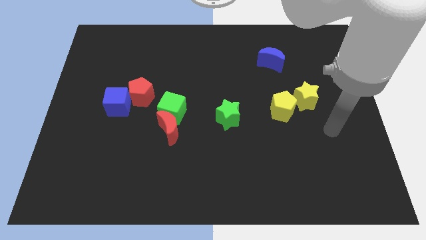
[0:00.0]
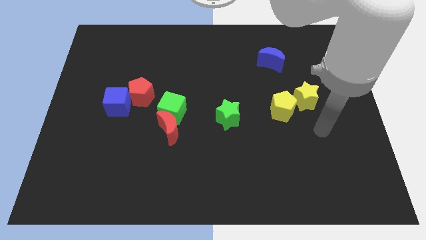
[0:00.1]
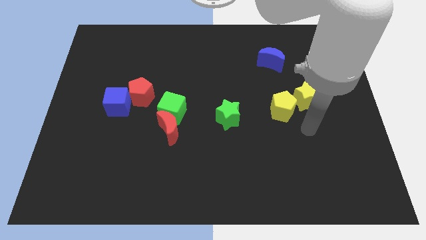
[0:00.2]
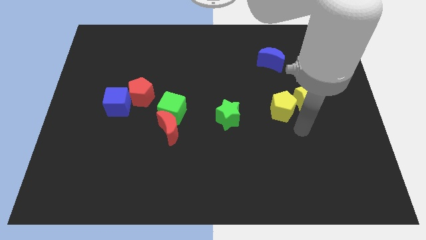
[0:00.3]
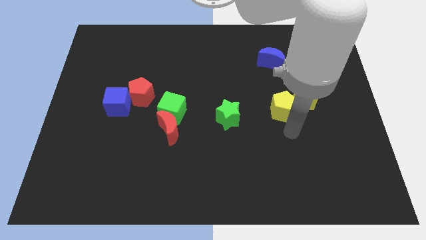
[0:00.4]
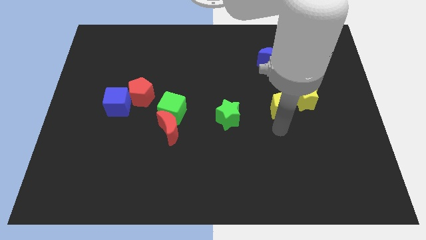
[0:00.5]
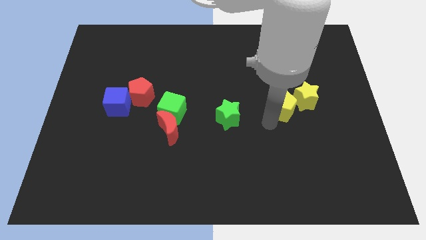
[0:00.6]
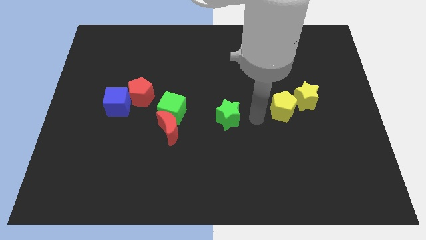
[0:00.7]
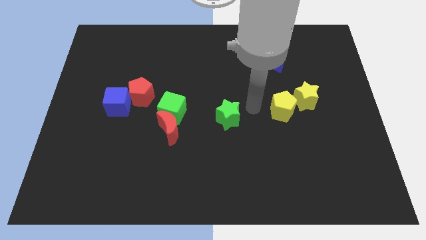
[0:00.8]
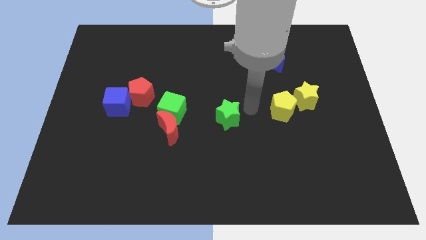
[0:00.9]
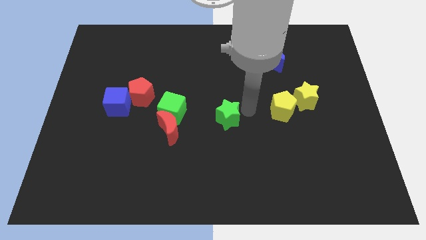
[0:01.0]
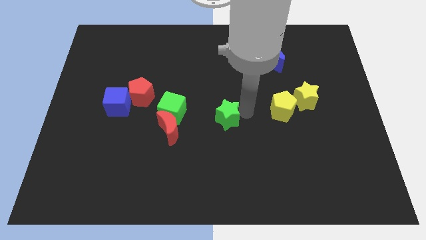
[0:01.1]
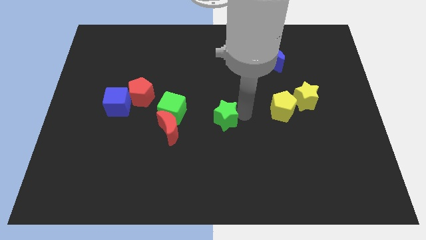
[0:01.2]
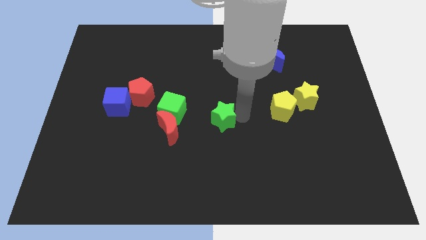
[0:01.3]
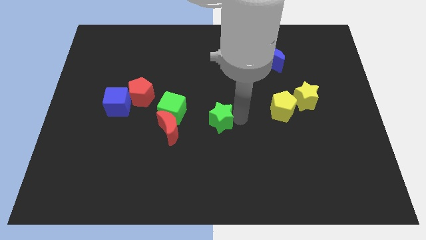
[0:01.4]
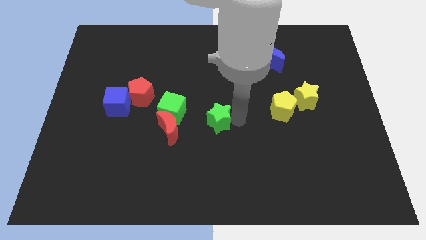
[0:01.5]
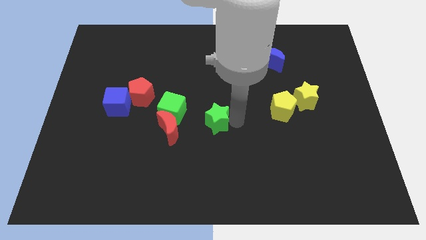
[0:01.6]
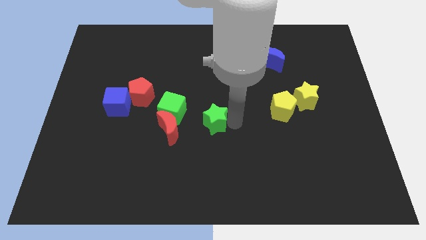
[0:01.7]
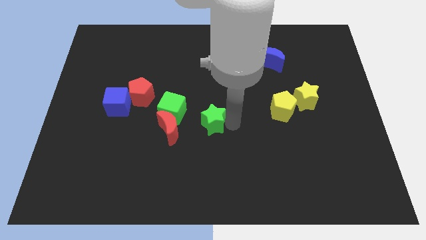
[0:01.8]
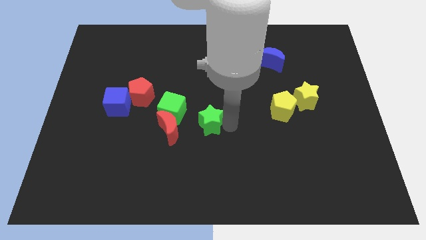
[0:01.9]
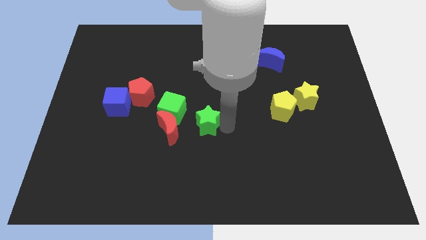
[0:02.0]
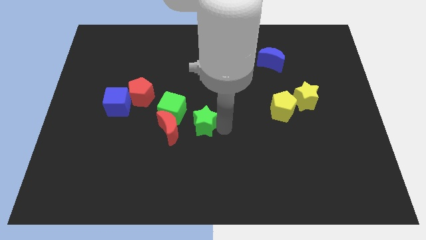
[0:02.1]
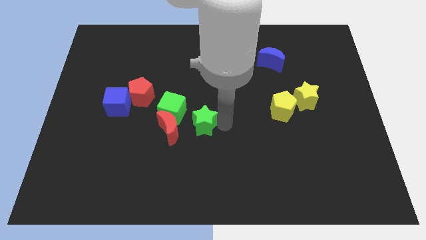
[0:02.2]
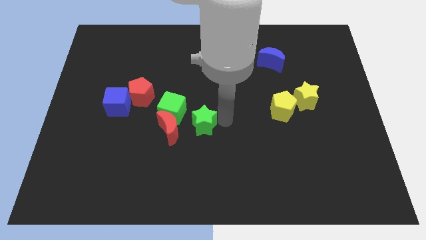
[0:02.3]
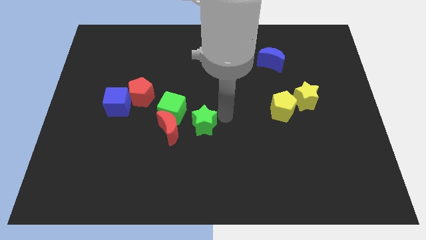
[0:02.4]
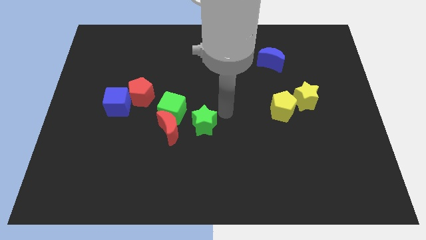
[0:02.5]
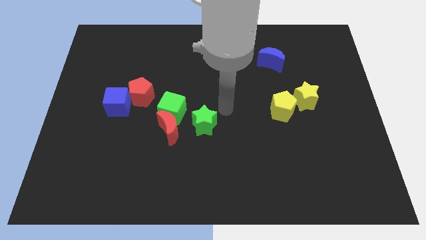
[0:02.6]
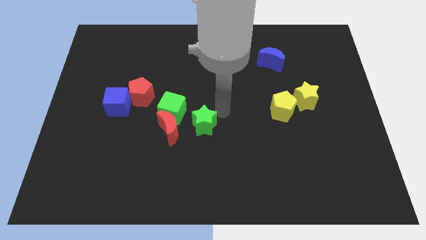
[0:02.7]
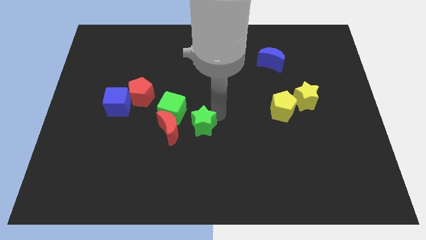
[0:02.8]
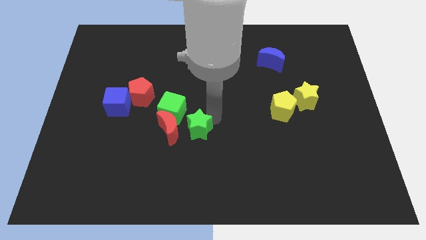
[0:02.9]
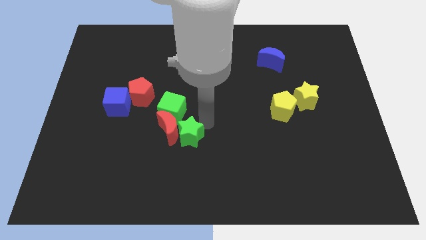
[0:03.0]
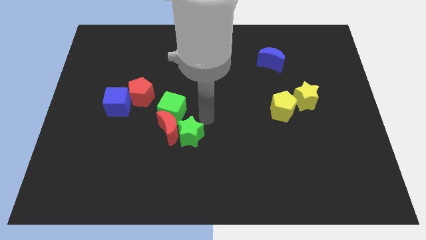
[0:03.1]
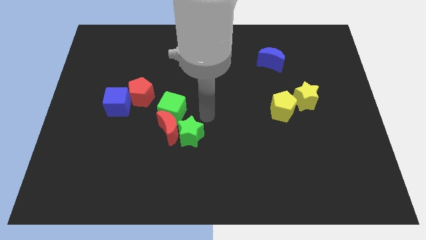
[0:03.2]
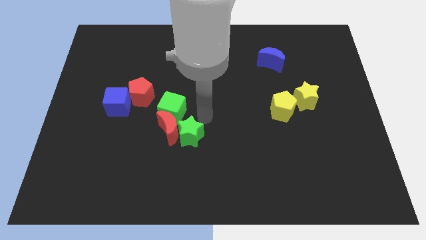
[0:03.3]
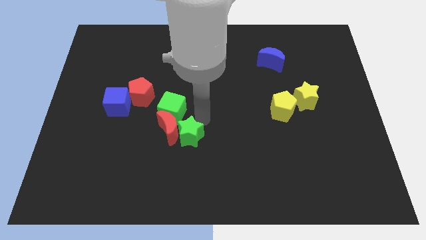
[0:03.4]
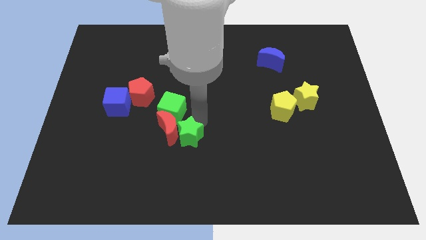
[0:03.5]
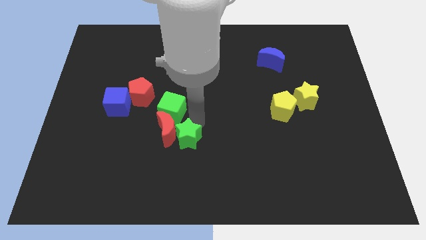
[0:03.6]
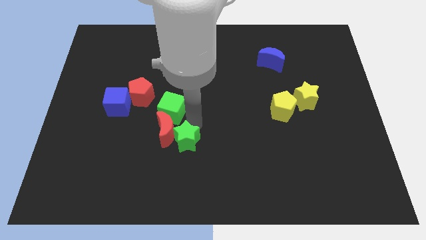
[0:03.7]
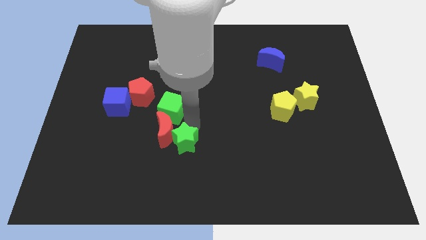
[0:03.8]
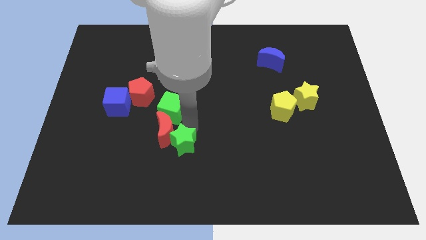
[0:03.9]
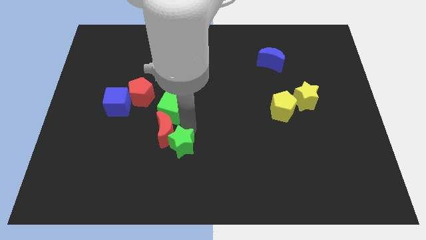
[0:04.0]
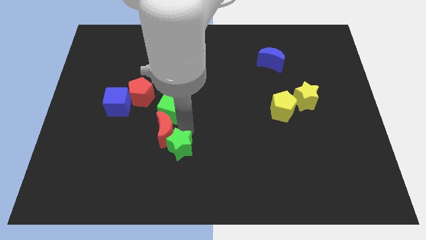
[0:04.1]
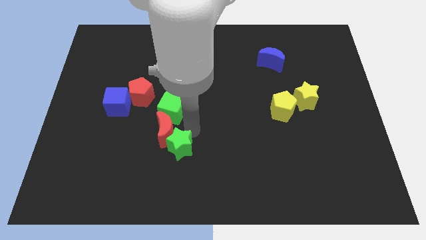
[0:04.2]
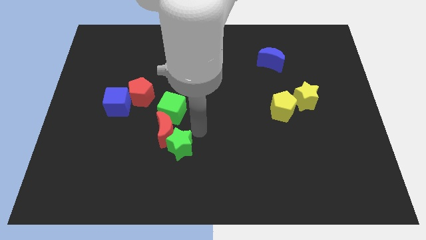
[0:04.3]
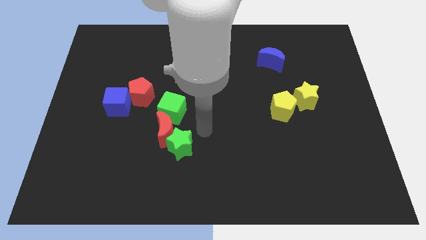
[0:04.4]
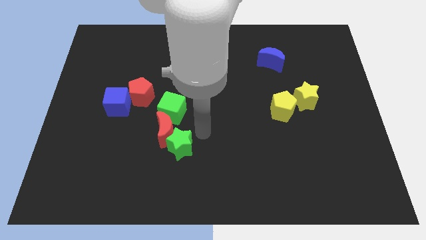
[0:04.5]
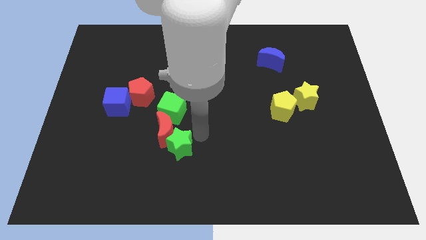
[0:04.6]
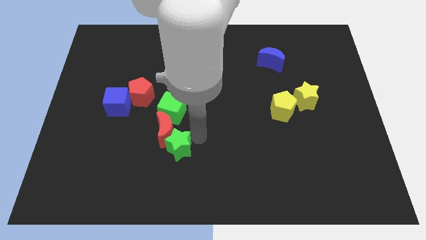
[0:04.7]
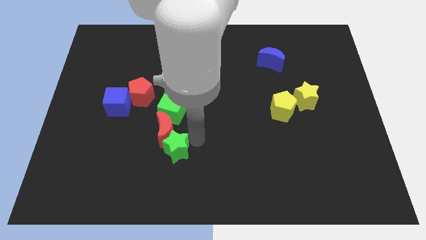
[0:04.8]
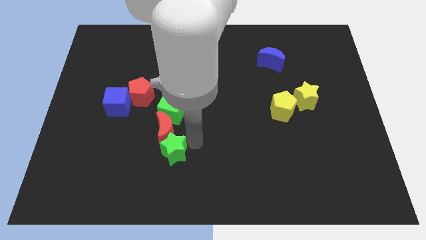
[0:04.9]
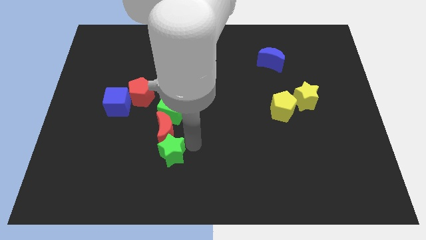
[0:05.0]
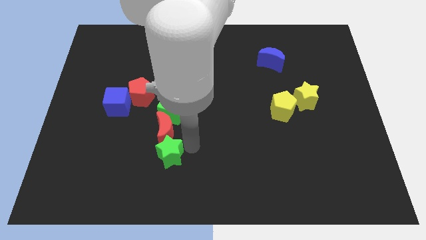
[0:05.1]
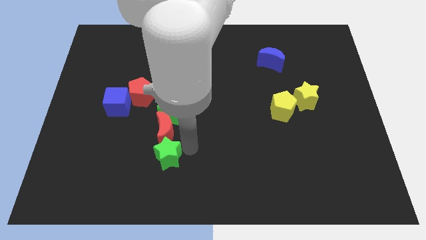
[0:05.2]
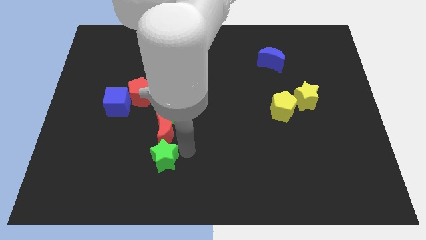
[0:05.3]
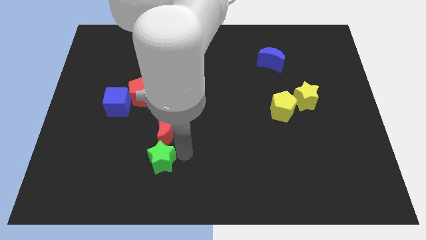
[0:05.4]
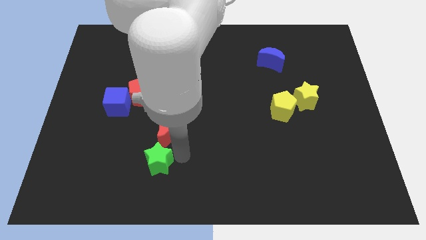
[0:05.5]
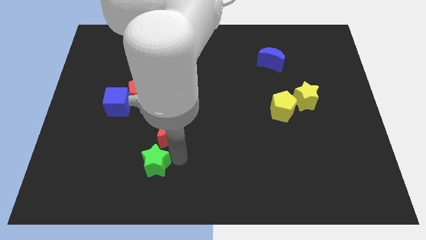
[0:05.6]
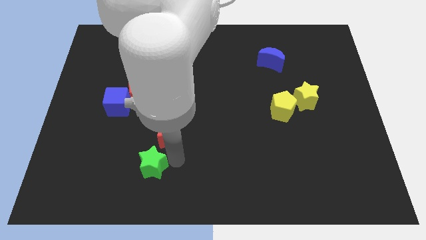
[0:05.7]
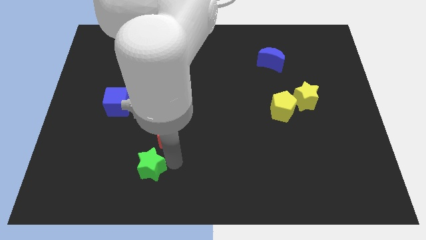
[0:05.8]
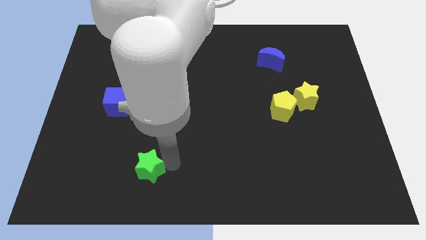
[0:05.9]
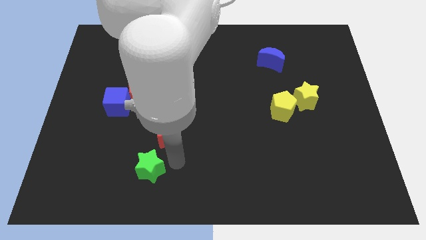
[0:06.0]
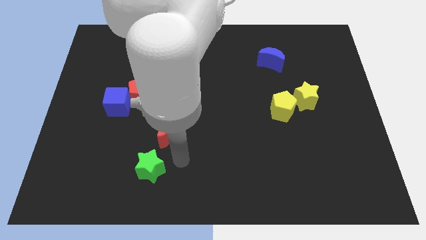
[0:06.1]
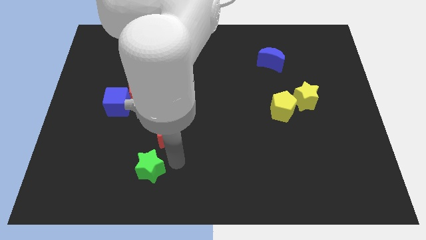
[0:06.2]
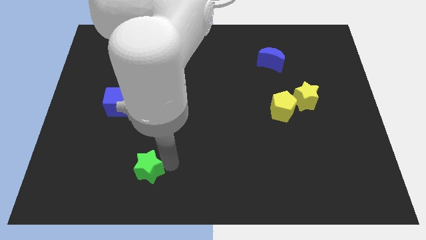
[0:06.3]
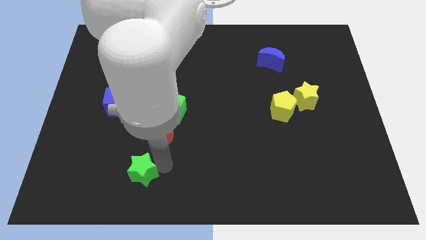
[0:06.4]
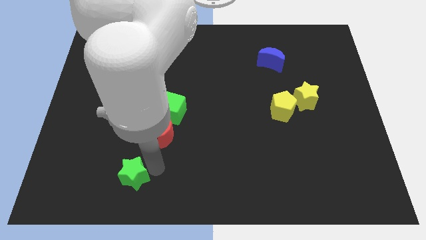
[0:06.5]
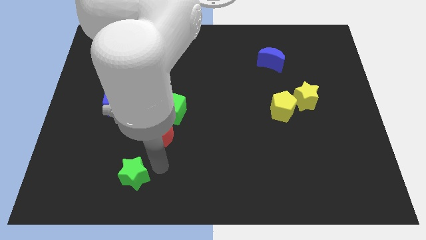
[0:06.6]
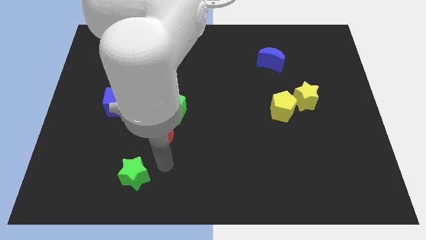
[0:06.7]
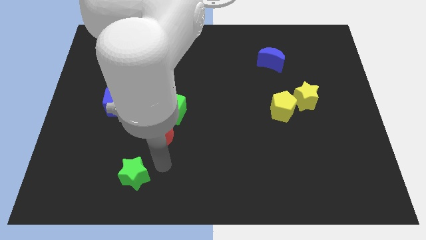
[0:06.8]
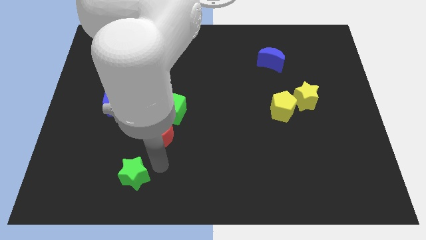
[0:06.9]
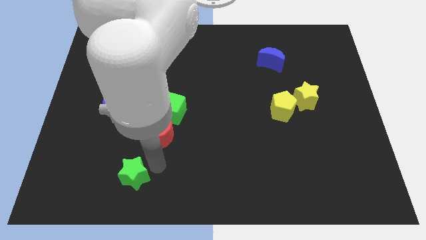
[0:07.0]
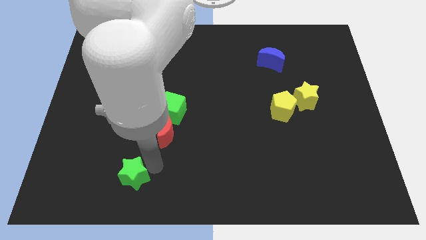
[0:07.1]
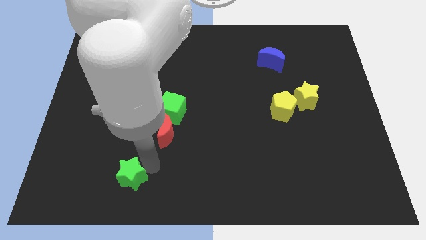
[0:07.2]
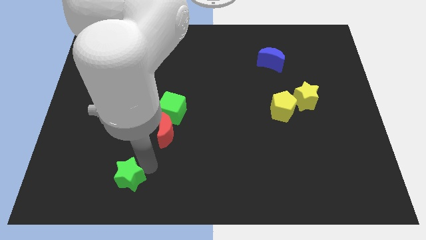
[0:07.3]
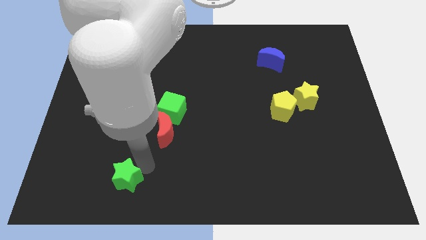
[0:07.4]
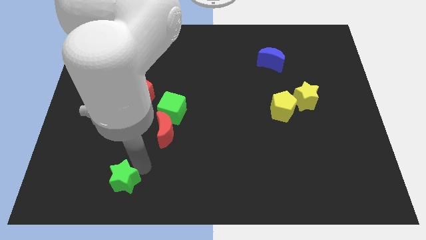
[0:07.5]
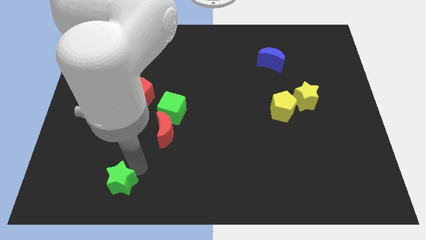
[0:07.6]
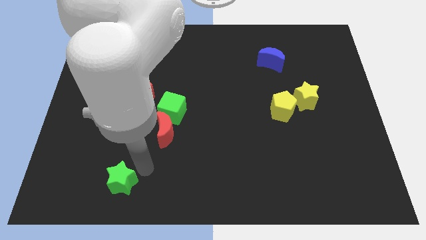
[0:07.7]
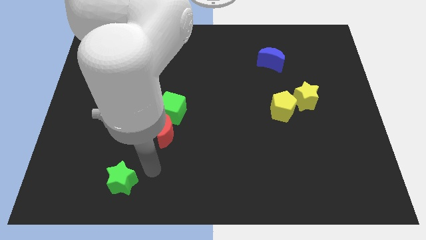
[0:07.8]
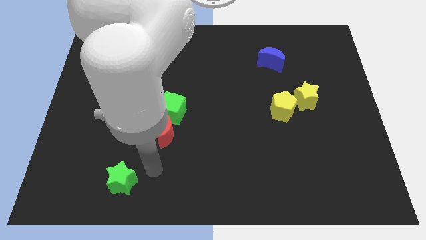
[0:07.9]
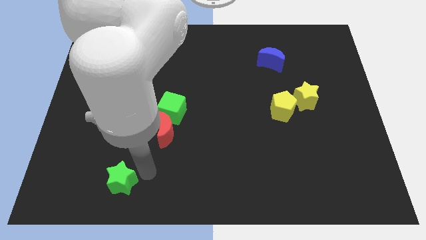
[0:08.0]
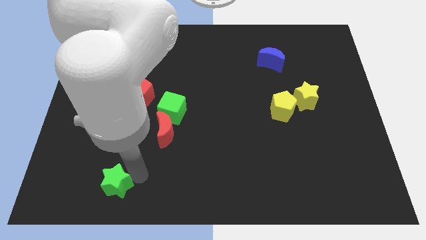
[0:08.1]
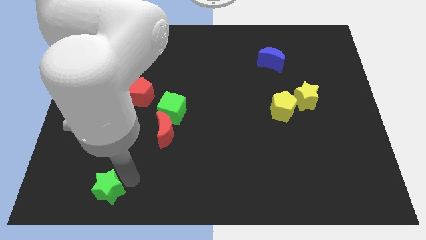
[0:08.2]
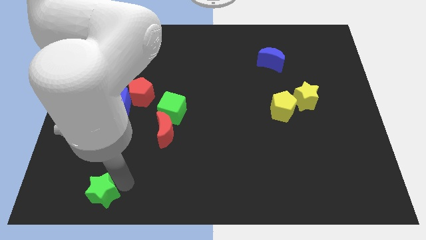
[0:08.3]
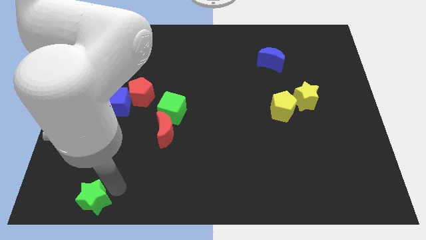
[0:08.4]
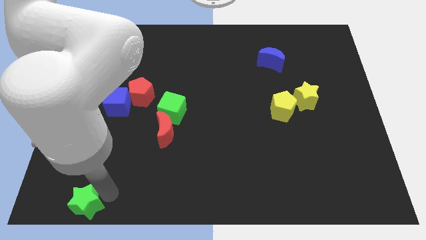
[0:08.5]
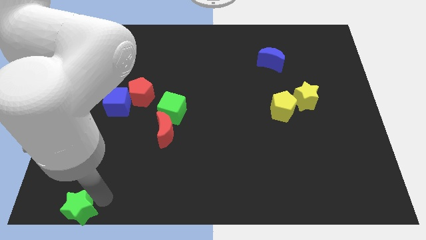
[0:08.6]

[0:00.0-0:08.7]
push the green star to the bottom left
